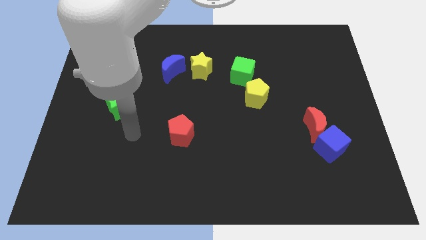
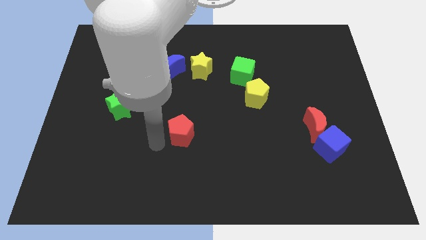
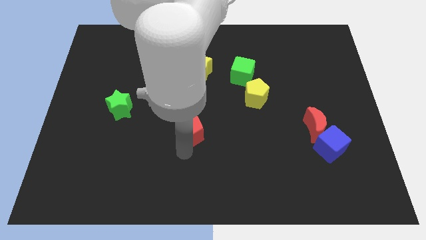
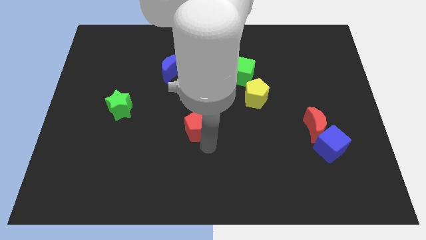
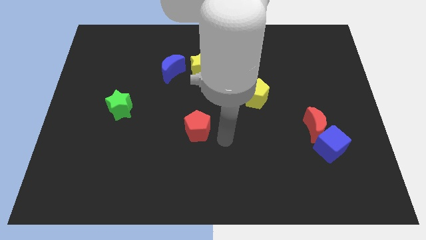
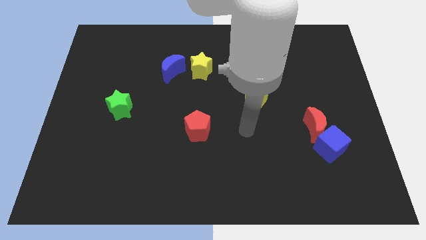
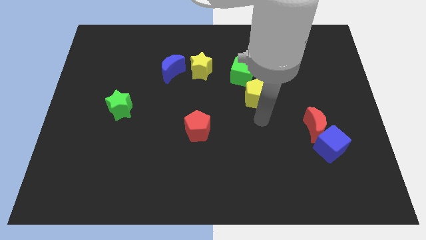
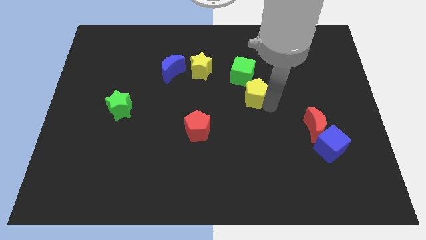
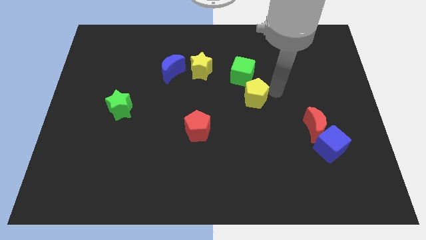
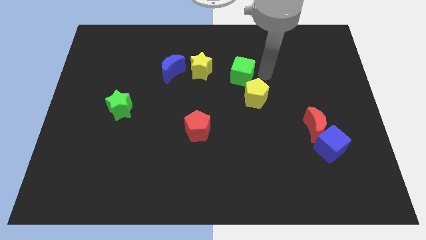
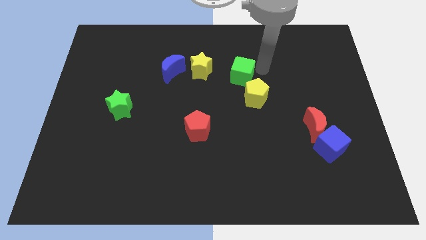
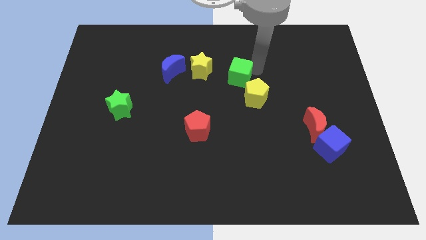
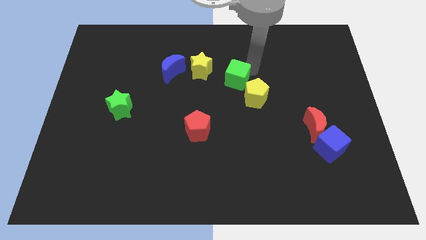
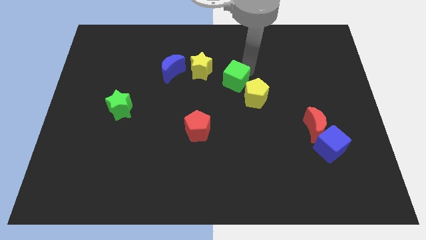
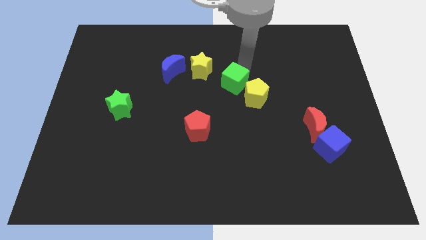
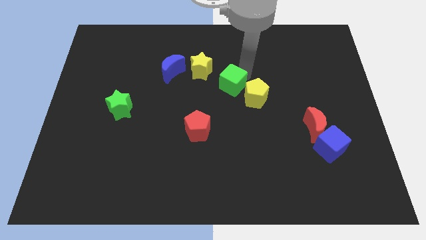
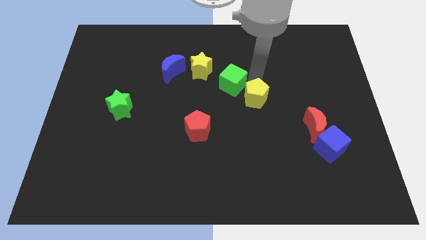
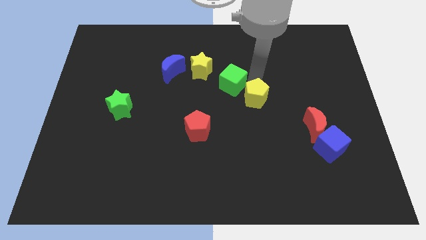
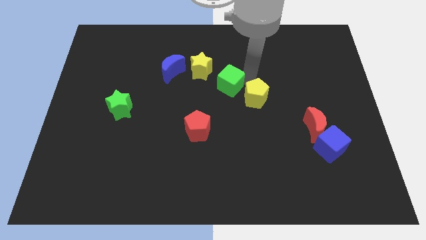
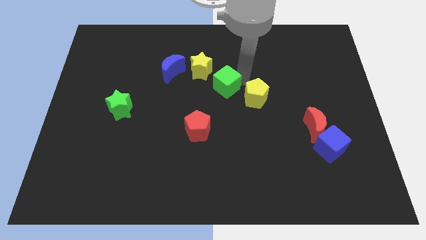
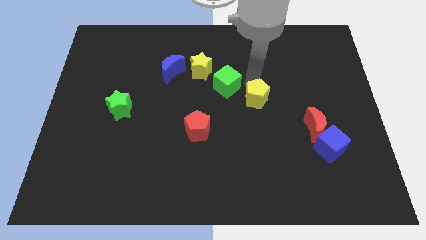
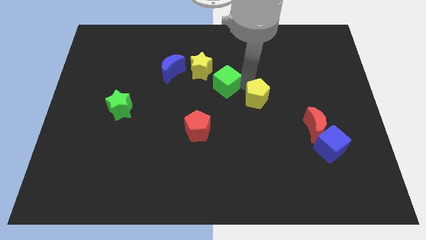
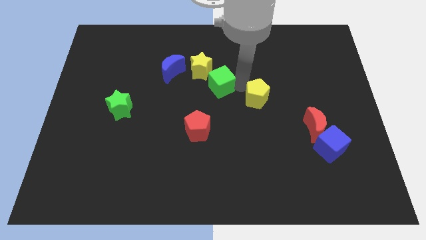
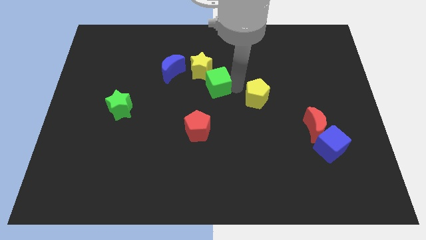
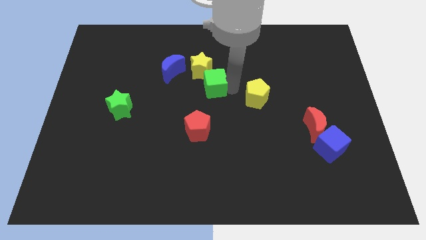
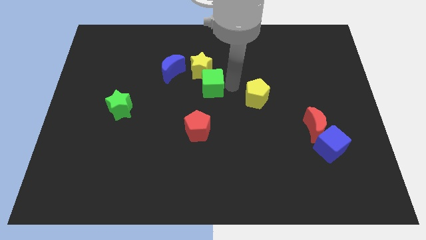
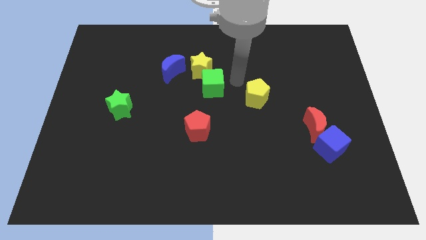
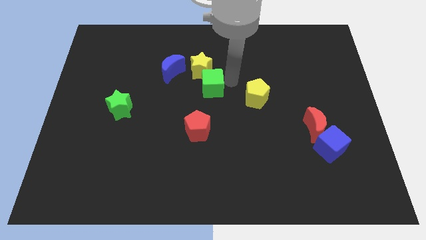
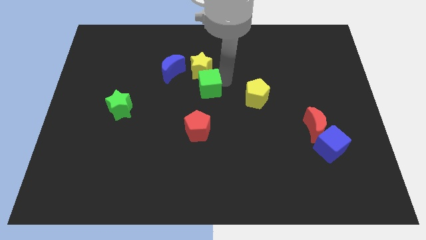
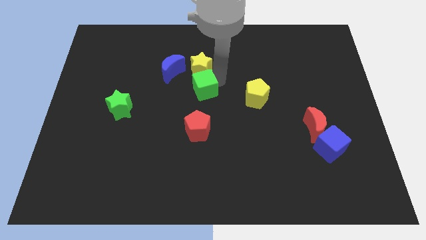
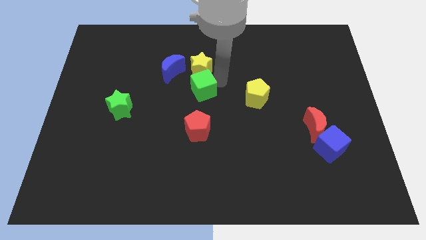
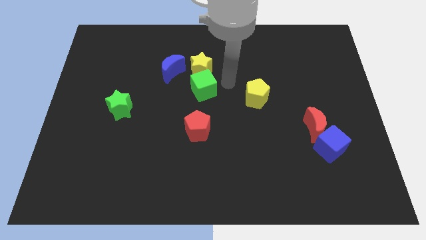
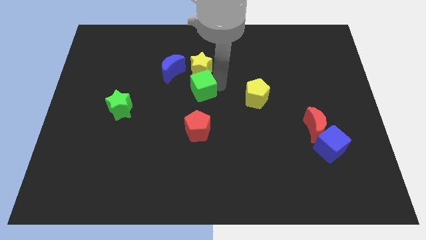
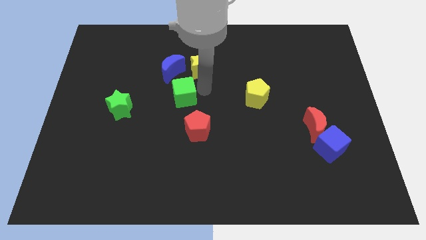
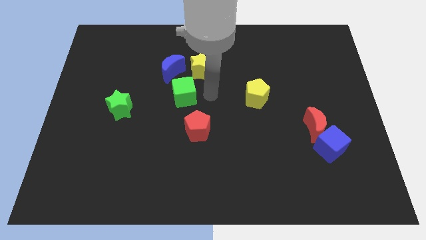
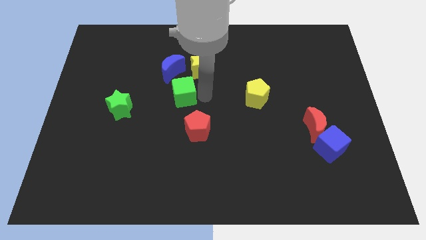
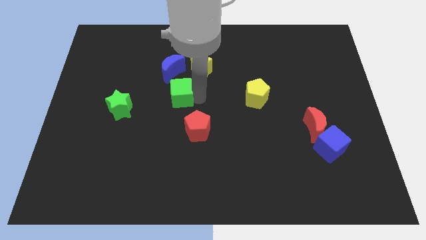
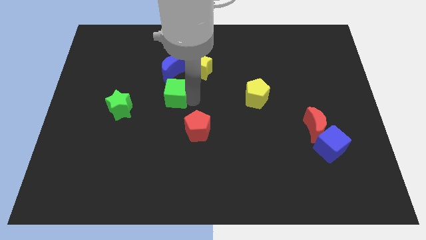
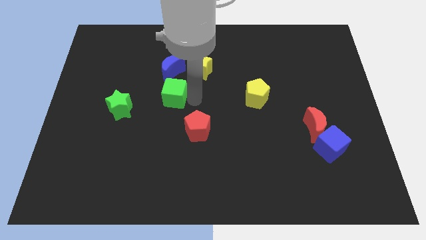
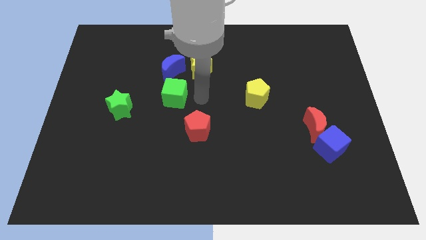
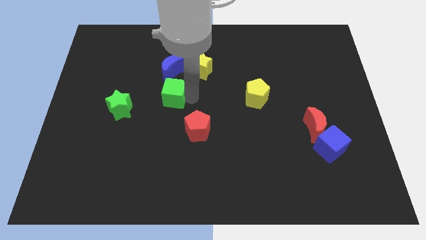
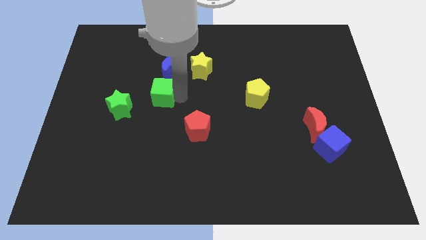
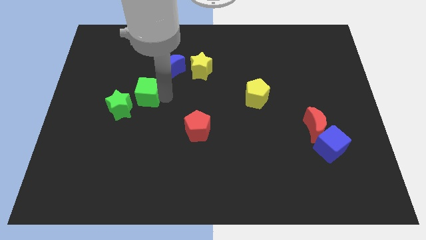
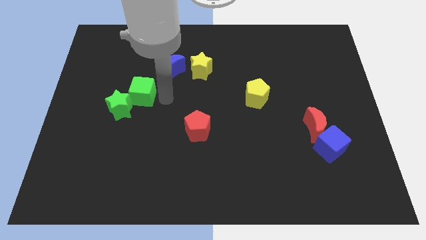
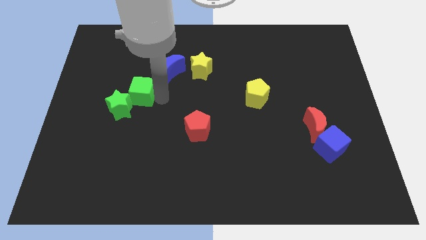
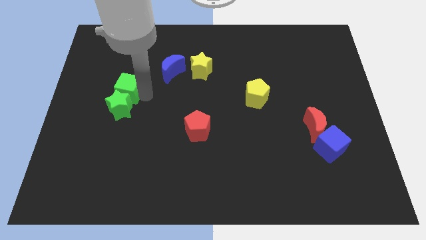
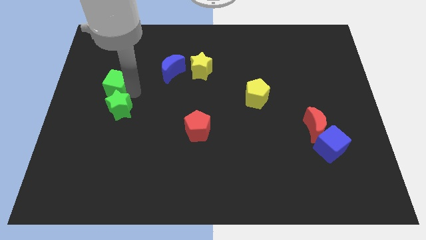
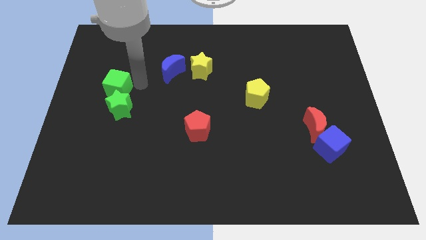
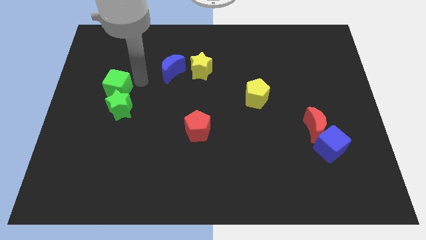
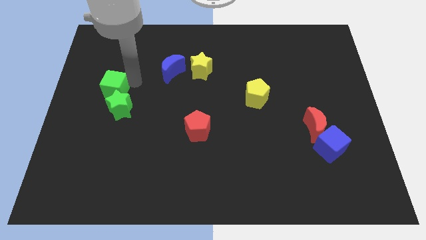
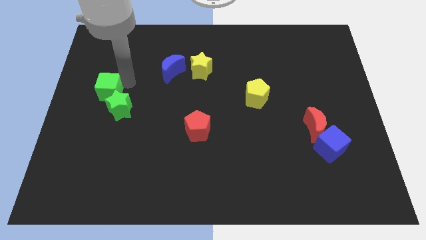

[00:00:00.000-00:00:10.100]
move the green cube to the center left

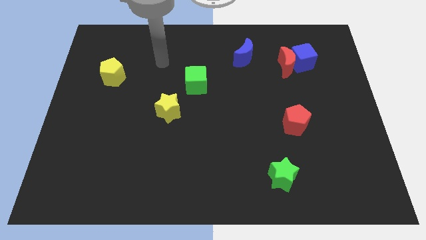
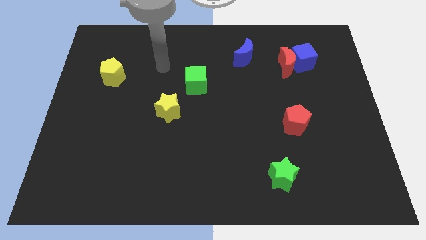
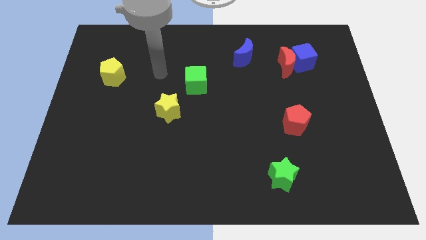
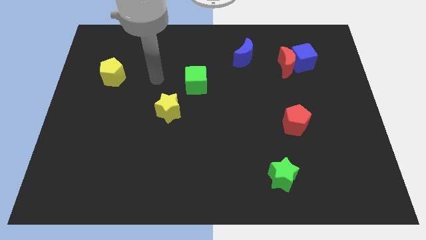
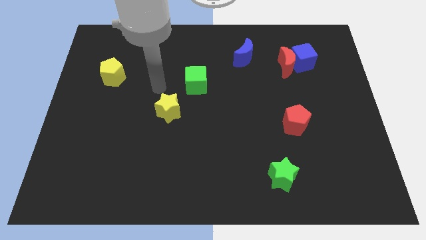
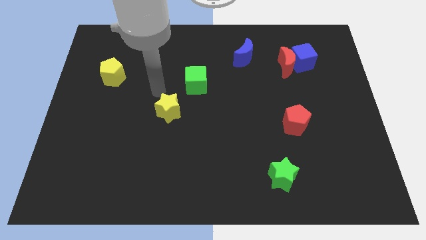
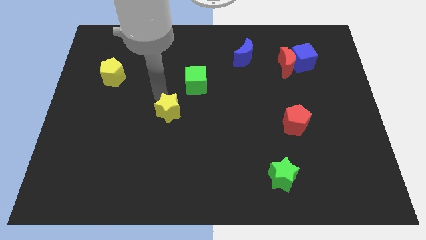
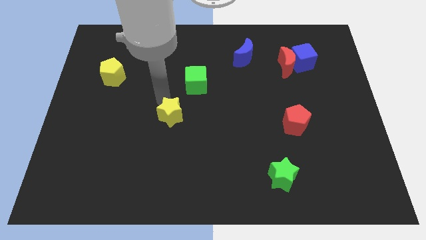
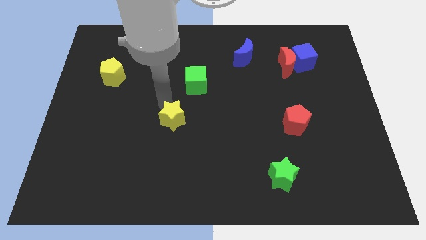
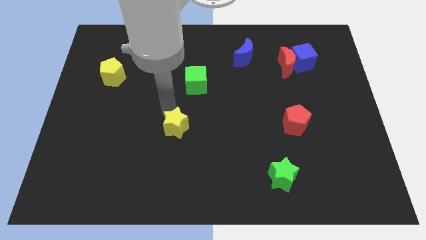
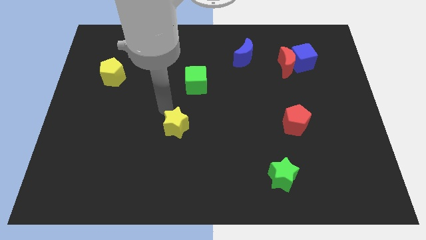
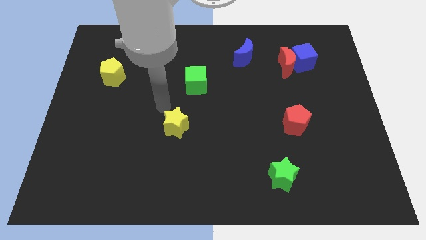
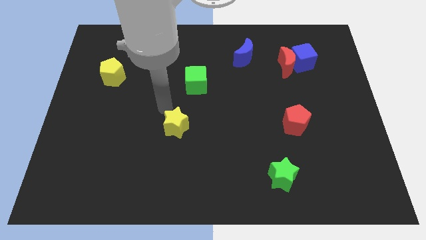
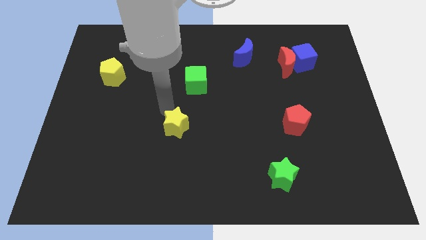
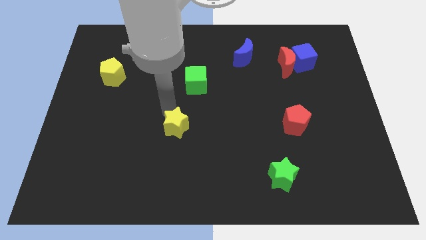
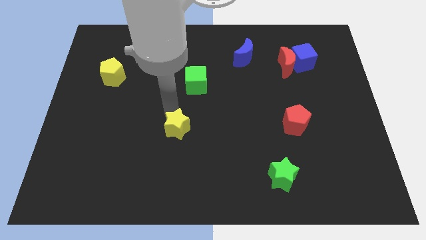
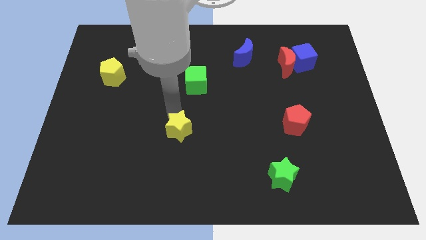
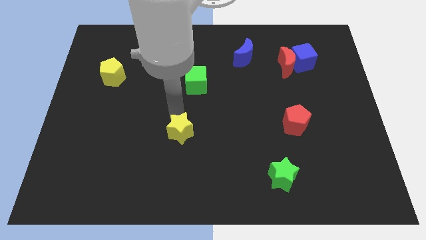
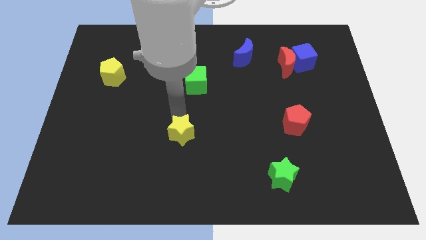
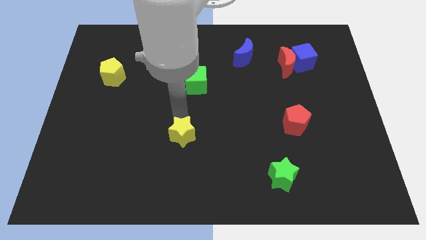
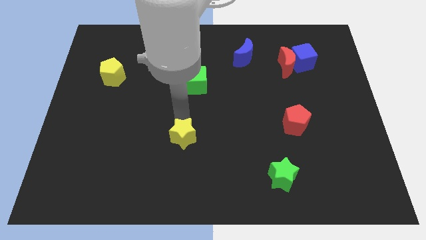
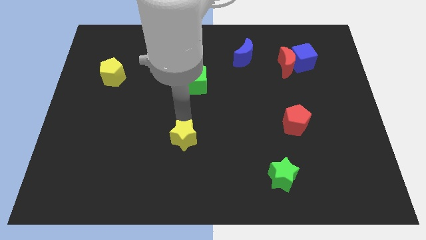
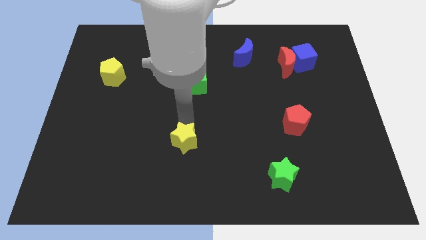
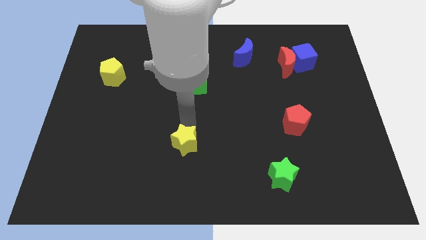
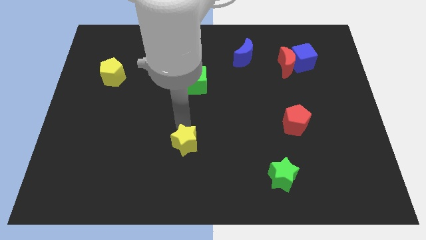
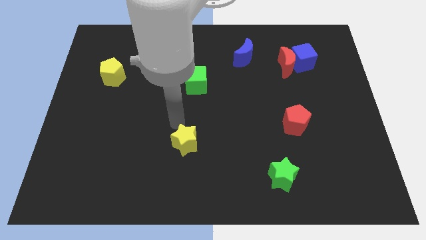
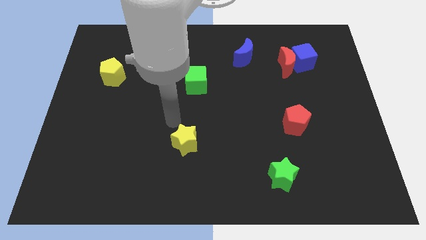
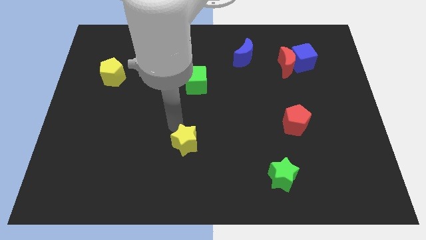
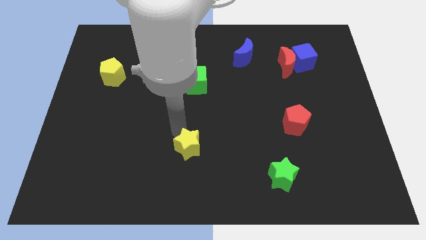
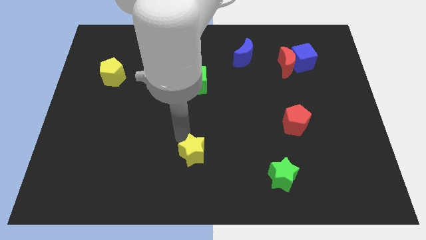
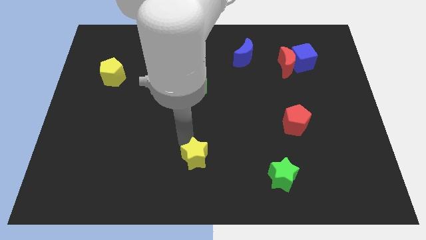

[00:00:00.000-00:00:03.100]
move the yellow star to the bottom side
